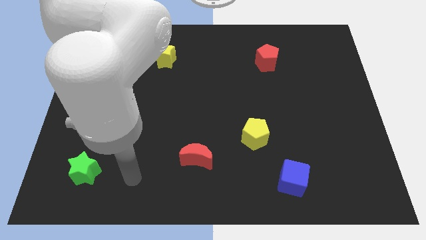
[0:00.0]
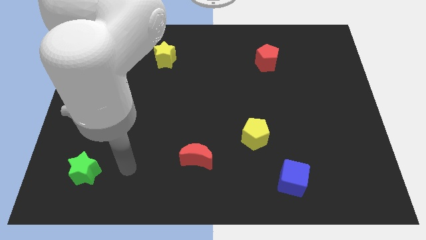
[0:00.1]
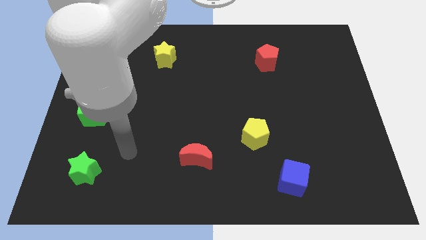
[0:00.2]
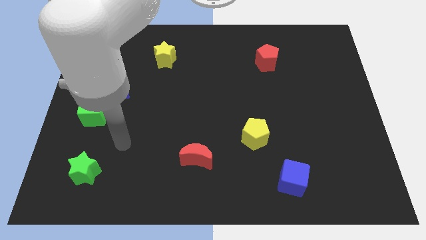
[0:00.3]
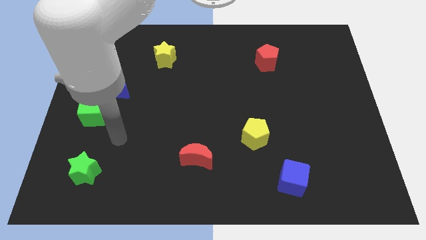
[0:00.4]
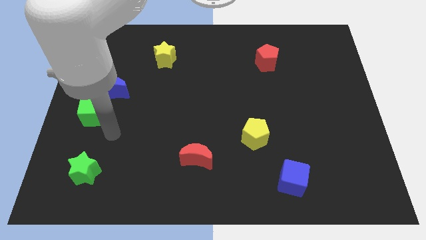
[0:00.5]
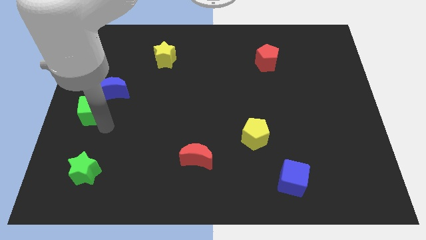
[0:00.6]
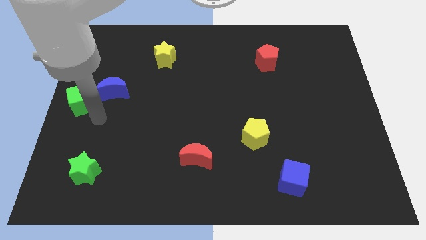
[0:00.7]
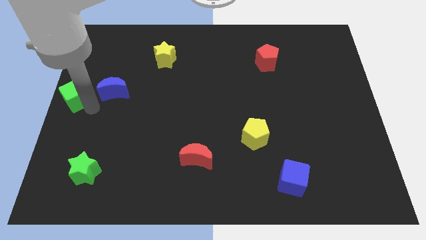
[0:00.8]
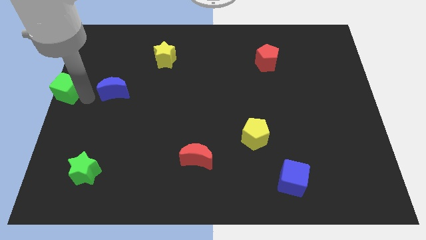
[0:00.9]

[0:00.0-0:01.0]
move the blue moon away from the green cube

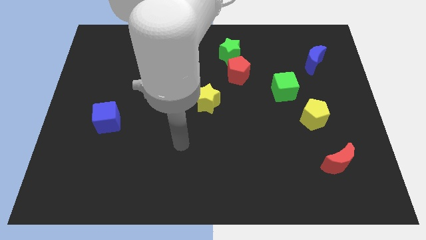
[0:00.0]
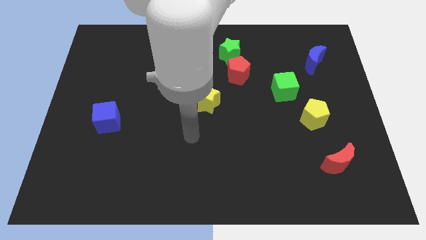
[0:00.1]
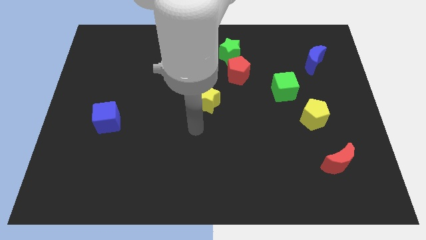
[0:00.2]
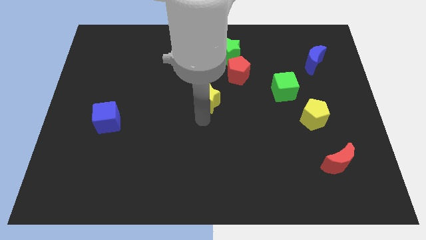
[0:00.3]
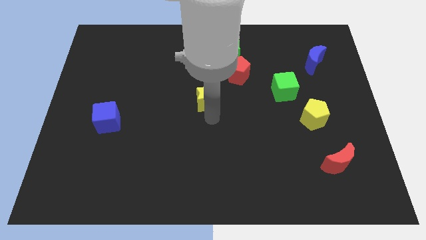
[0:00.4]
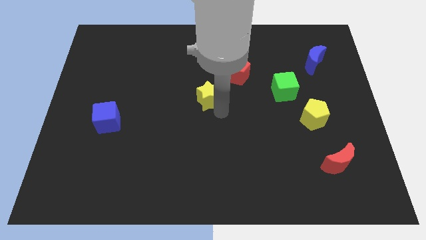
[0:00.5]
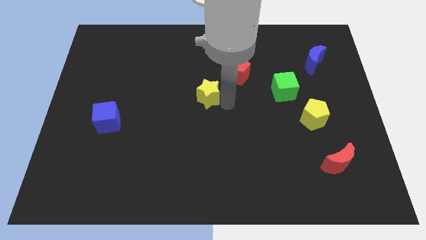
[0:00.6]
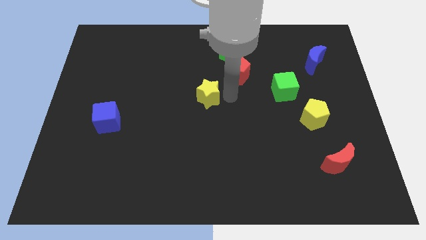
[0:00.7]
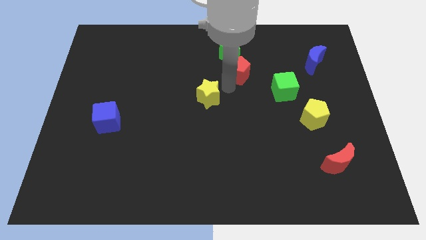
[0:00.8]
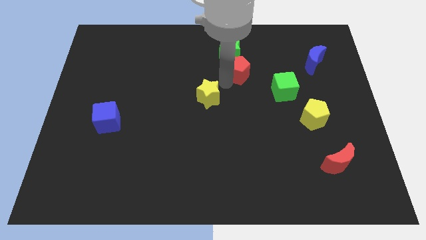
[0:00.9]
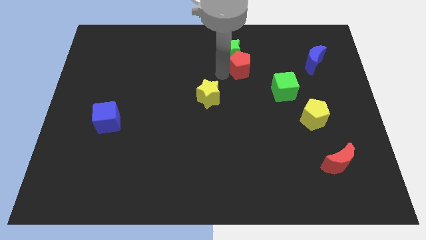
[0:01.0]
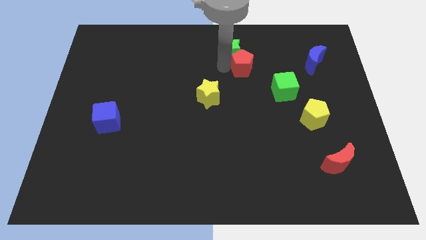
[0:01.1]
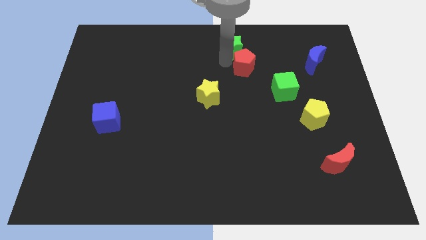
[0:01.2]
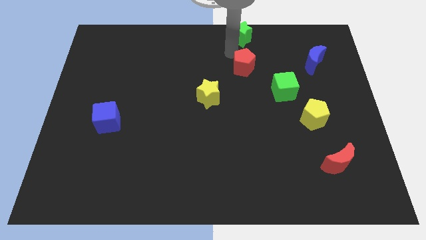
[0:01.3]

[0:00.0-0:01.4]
pull the red pentagon apart from the green star

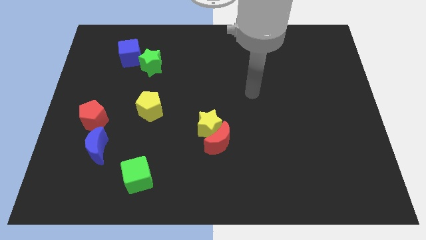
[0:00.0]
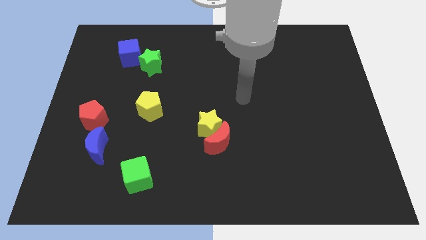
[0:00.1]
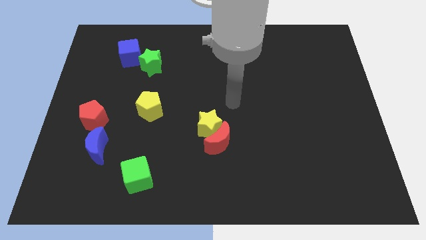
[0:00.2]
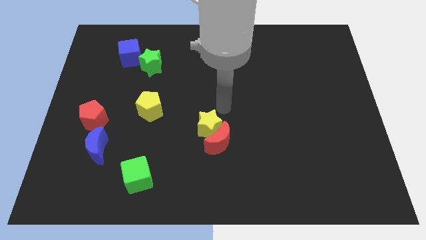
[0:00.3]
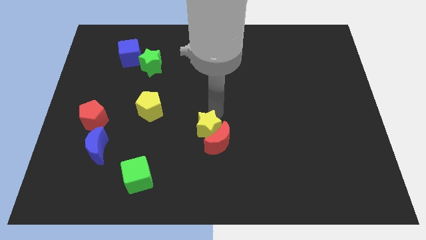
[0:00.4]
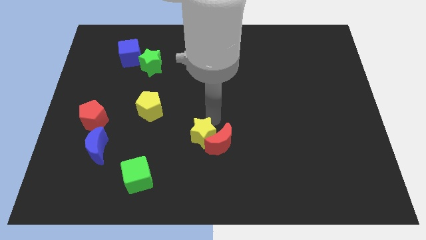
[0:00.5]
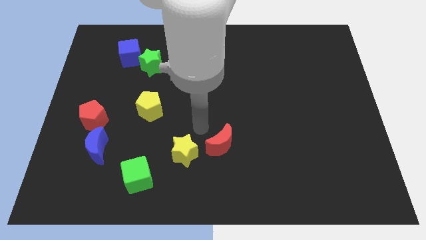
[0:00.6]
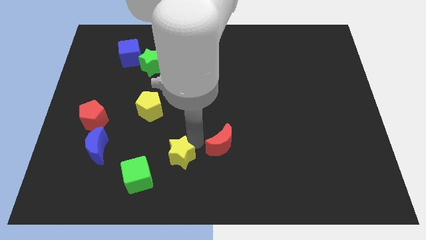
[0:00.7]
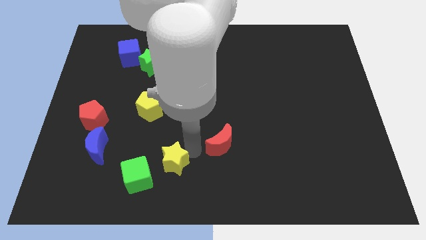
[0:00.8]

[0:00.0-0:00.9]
move the red moon away from the yellow star

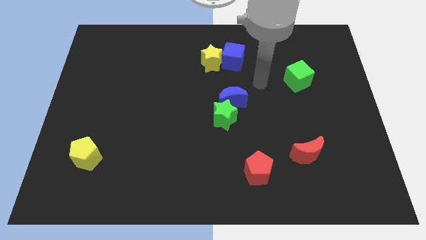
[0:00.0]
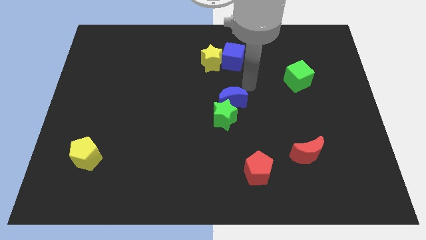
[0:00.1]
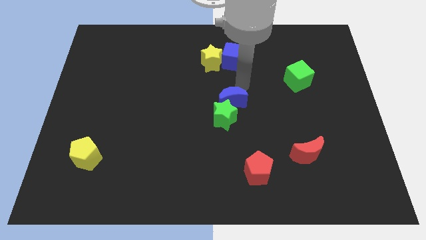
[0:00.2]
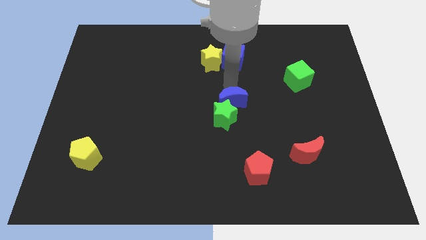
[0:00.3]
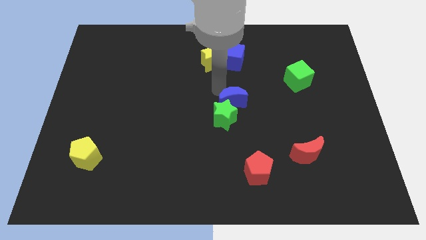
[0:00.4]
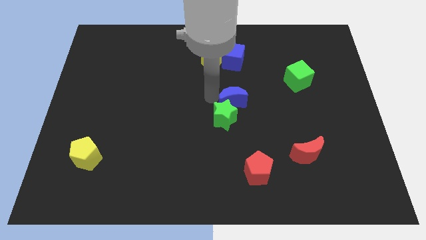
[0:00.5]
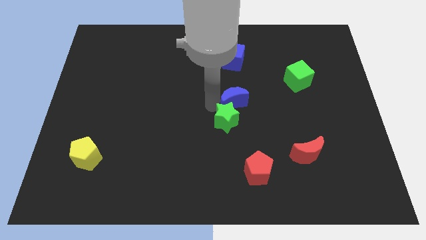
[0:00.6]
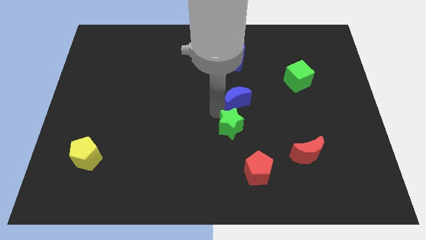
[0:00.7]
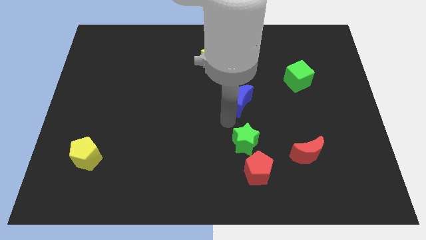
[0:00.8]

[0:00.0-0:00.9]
move the blue moon away from the green star

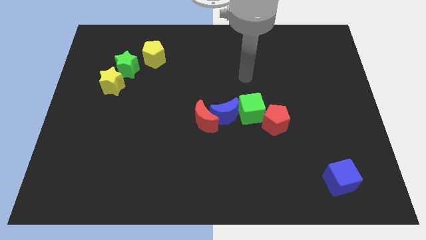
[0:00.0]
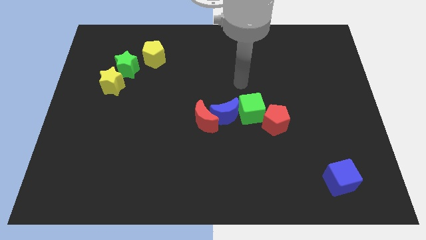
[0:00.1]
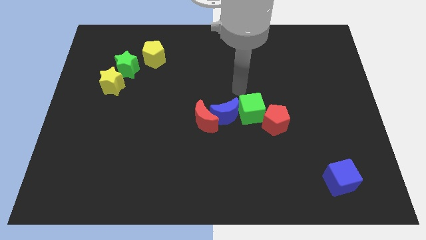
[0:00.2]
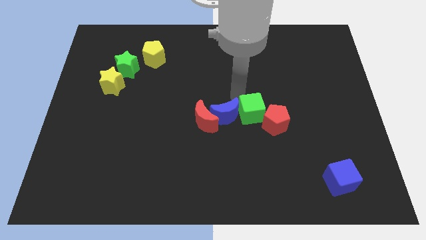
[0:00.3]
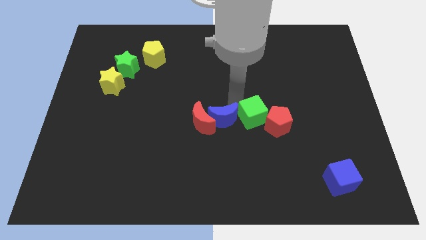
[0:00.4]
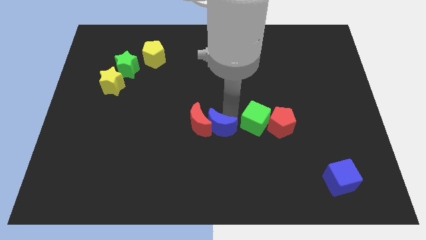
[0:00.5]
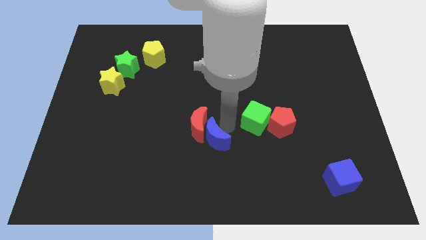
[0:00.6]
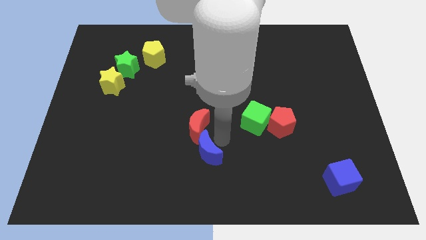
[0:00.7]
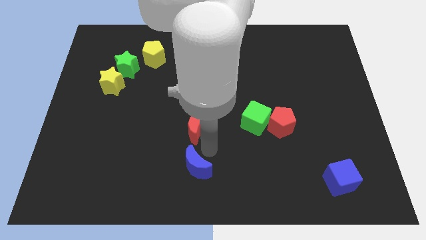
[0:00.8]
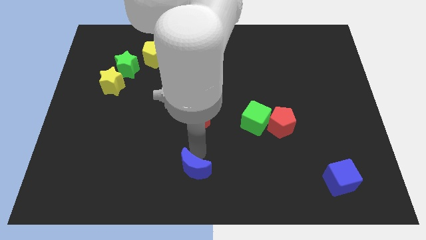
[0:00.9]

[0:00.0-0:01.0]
pull the red moon apart from the blue moon

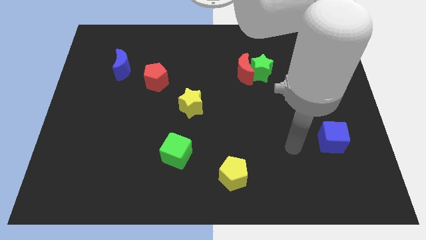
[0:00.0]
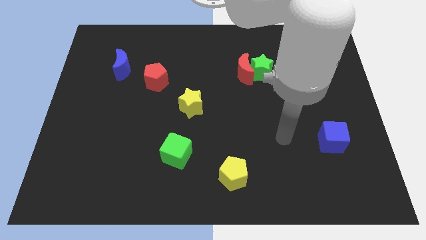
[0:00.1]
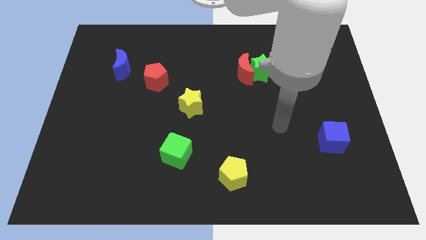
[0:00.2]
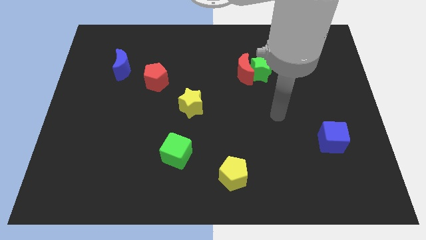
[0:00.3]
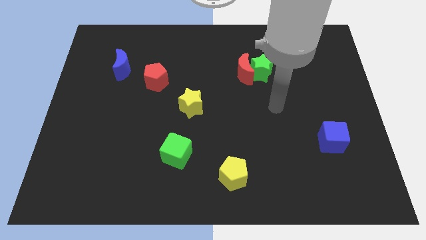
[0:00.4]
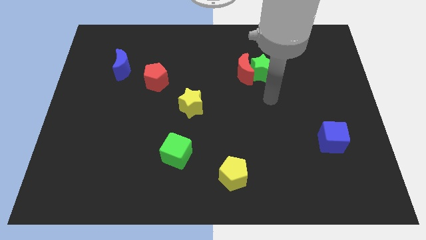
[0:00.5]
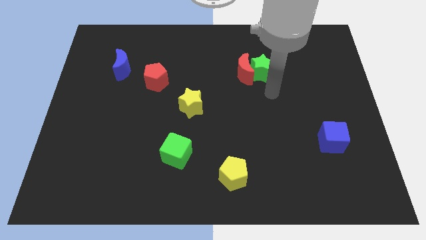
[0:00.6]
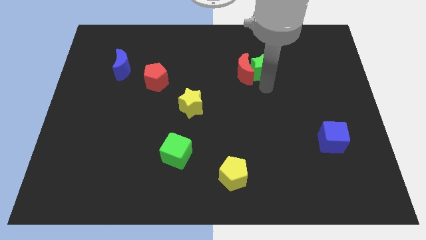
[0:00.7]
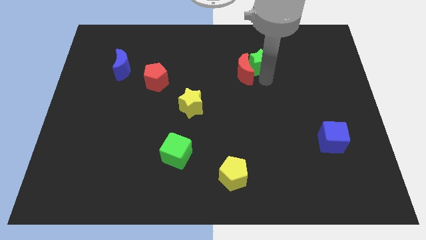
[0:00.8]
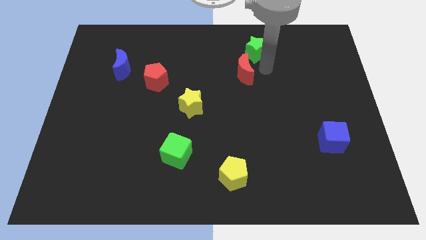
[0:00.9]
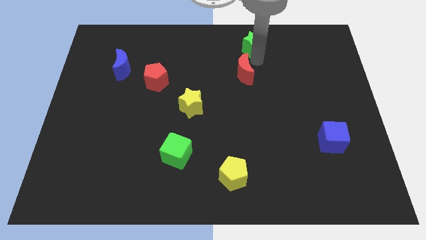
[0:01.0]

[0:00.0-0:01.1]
pull the red moon apart from the green star

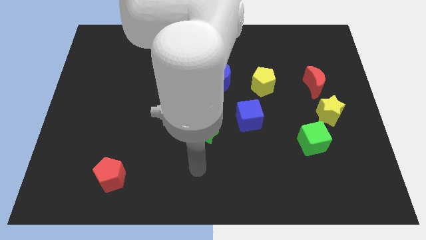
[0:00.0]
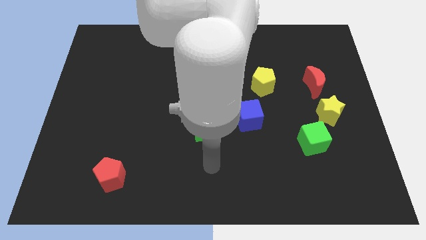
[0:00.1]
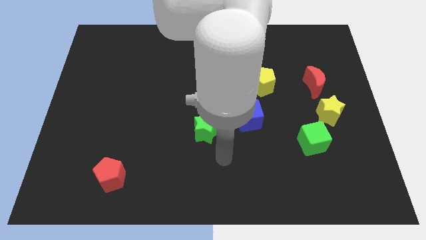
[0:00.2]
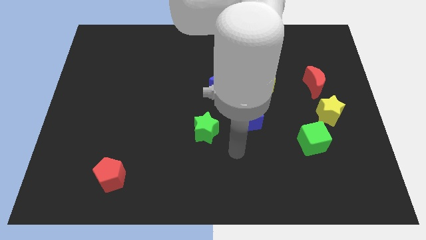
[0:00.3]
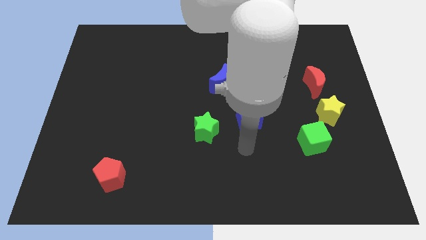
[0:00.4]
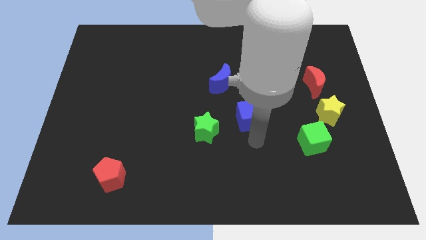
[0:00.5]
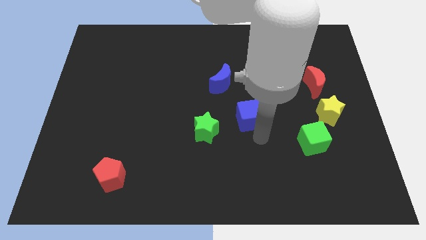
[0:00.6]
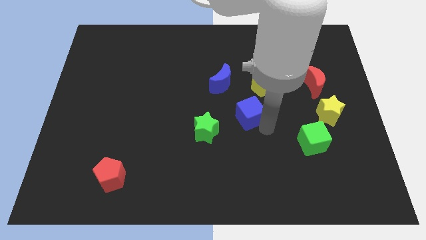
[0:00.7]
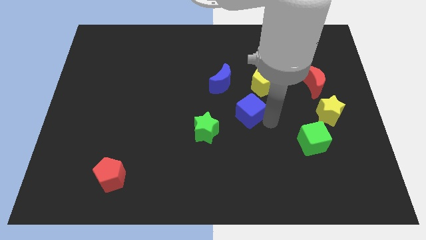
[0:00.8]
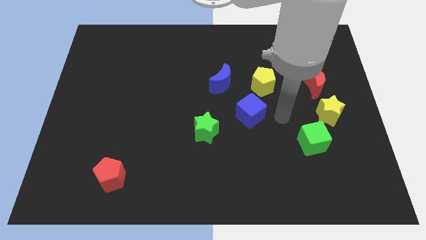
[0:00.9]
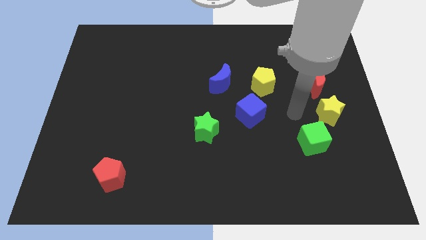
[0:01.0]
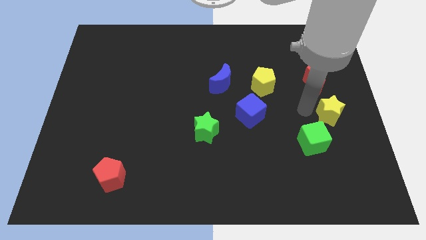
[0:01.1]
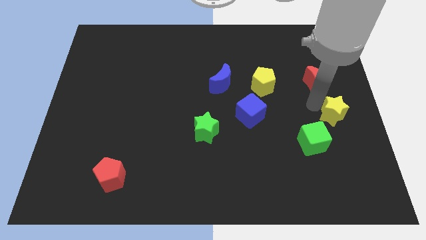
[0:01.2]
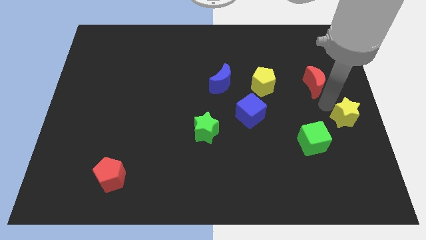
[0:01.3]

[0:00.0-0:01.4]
separate the red moon from the yellow star

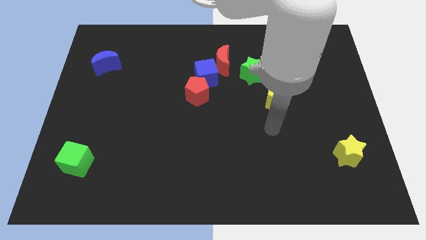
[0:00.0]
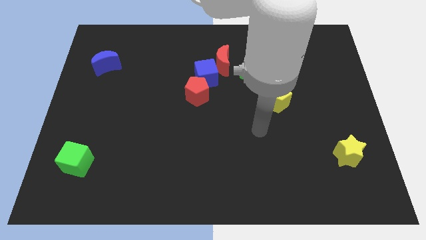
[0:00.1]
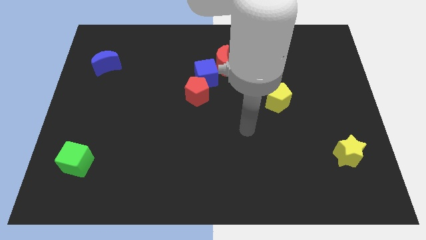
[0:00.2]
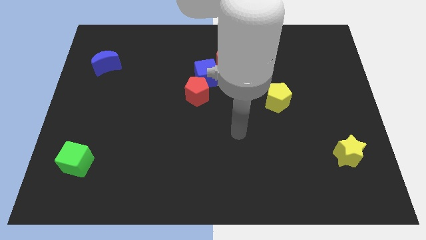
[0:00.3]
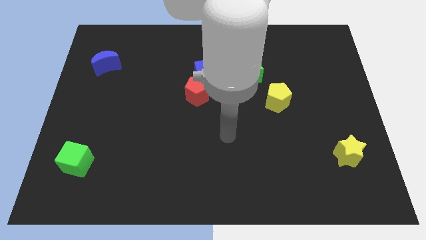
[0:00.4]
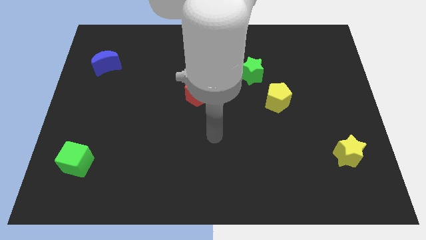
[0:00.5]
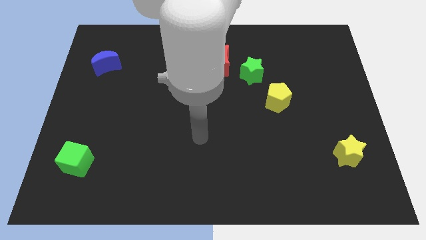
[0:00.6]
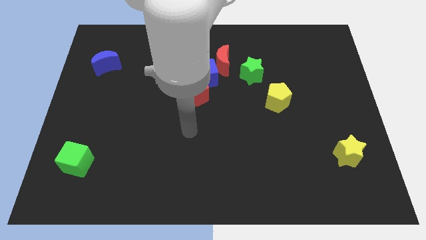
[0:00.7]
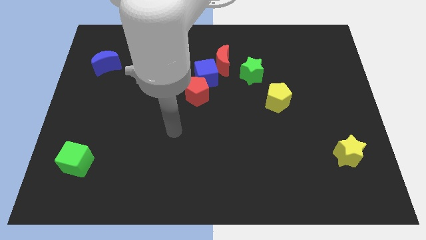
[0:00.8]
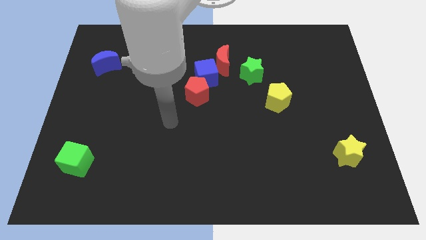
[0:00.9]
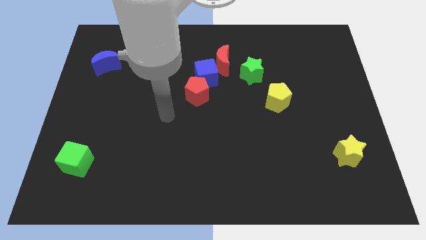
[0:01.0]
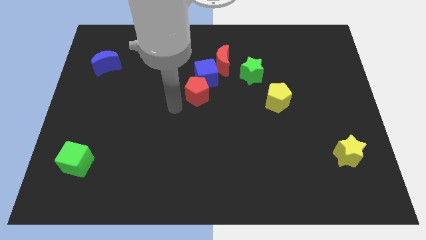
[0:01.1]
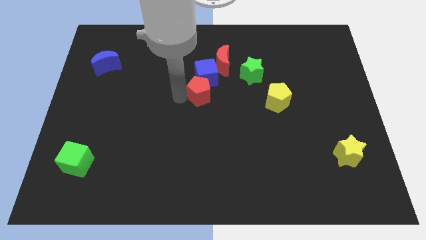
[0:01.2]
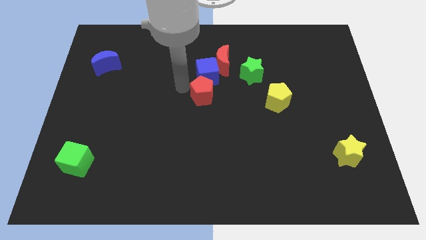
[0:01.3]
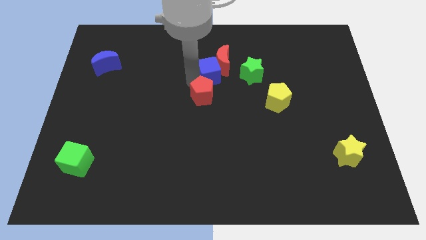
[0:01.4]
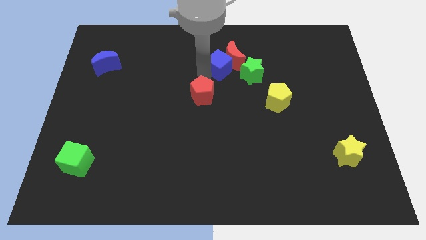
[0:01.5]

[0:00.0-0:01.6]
separate the red pentagon from the blue cube
